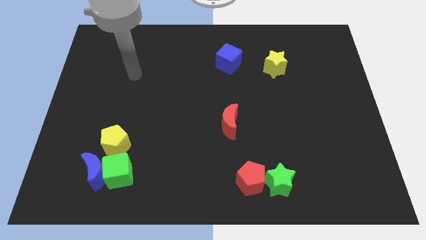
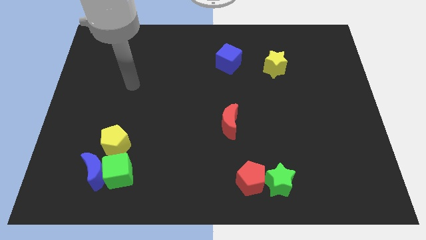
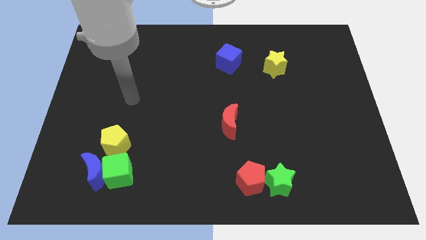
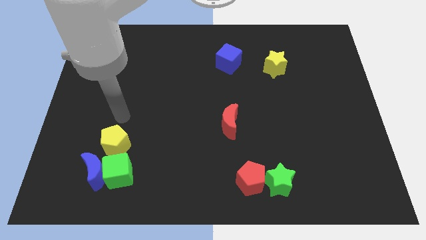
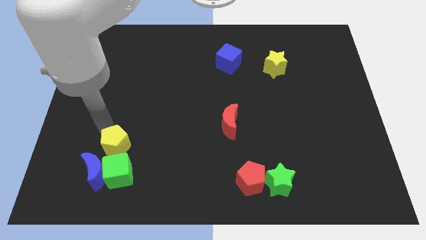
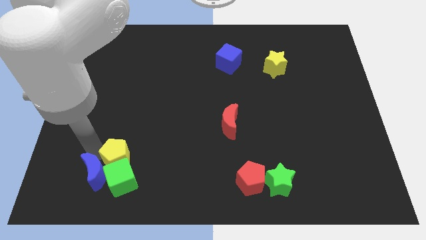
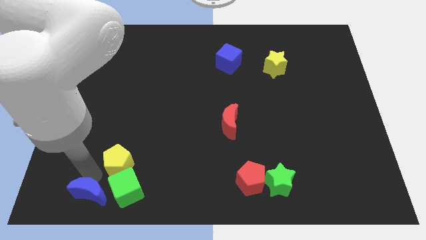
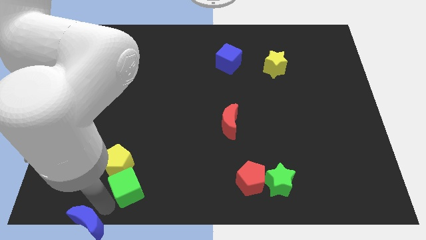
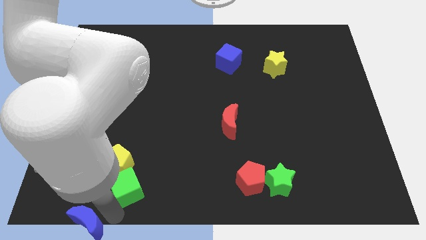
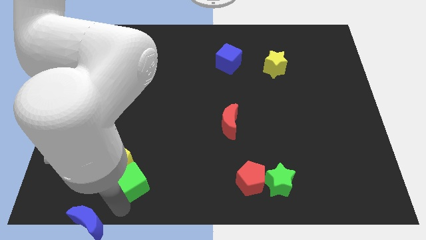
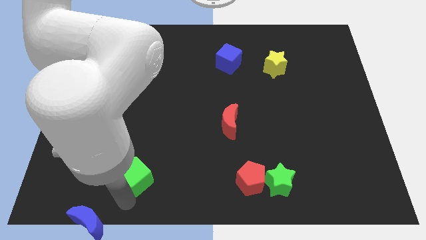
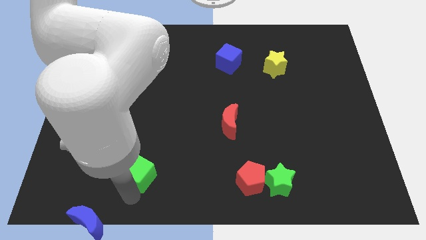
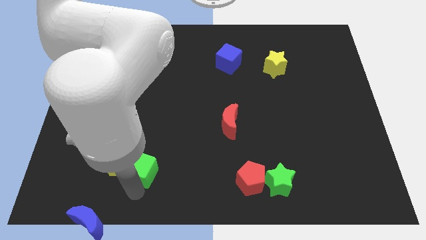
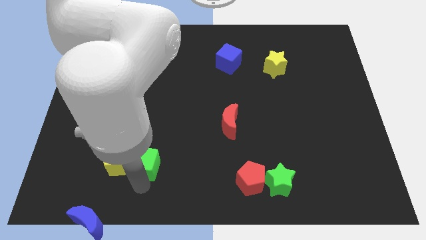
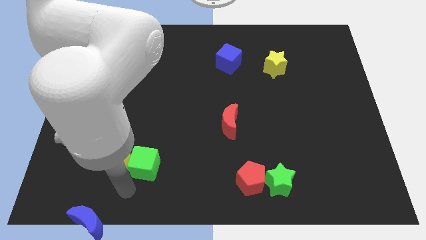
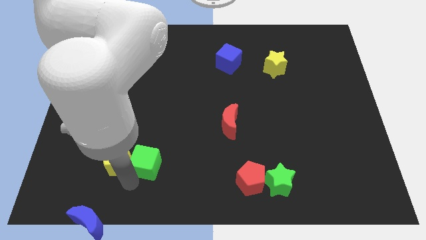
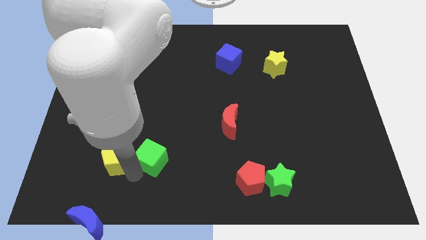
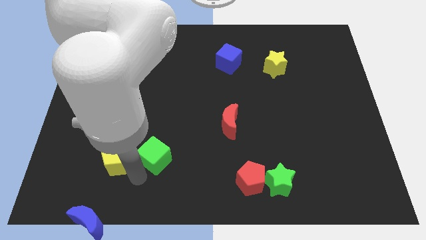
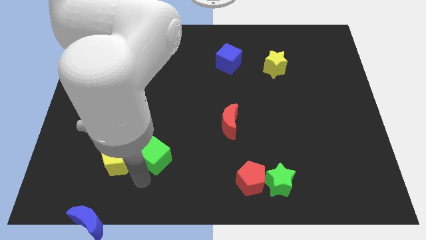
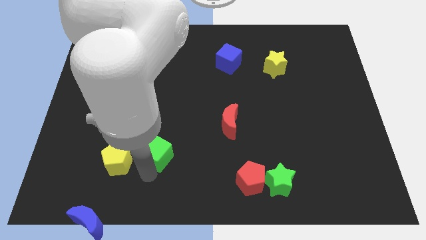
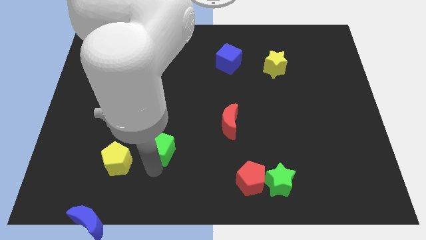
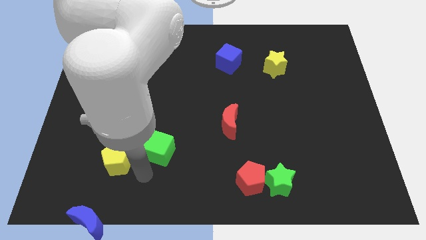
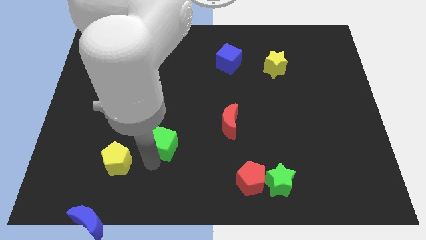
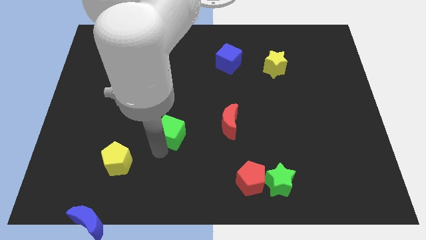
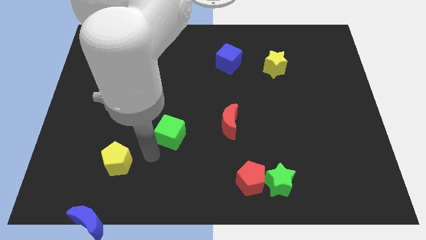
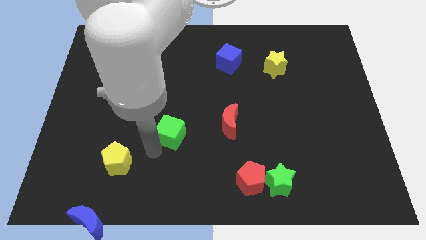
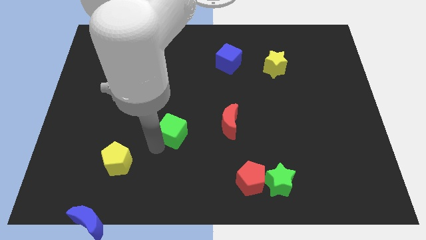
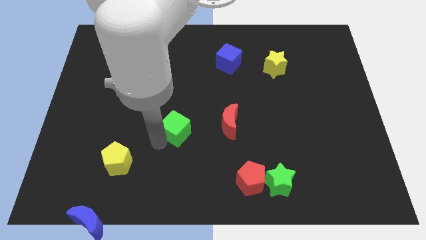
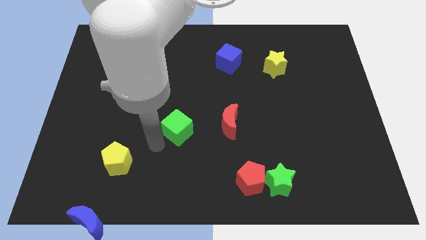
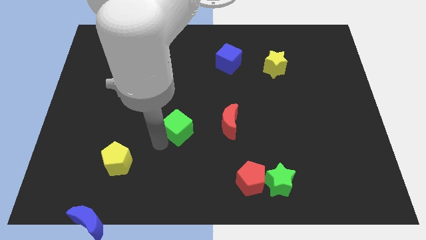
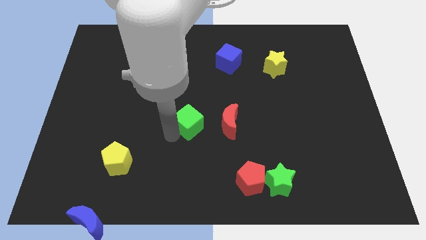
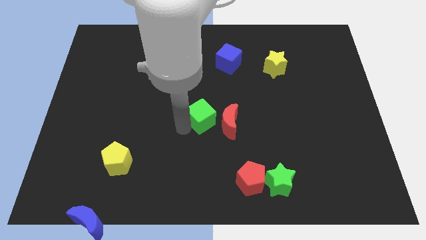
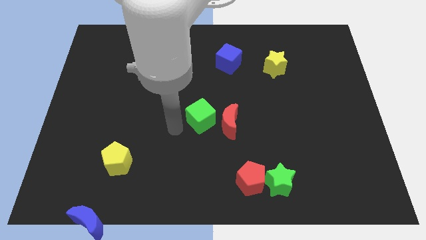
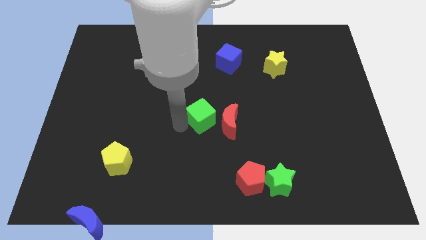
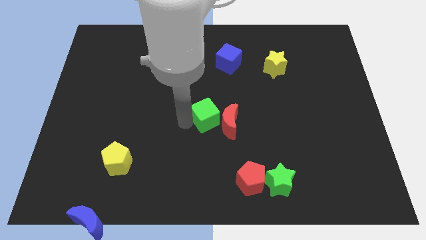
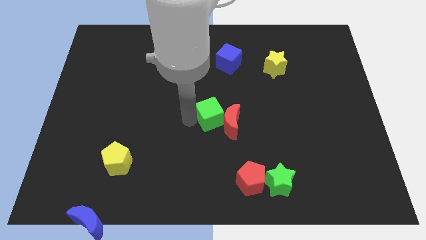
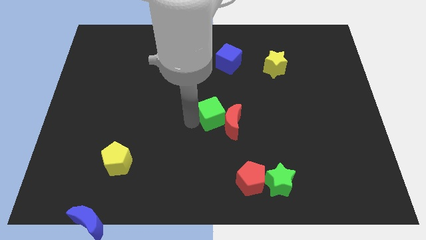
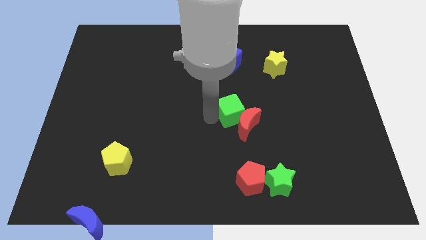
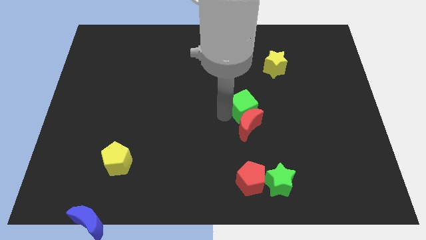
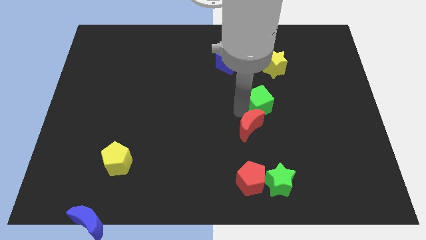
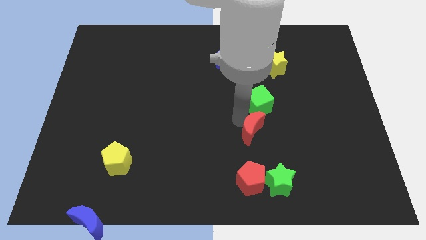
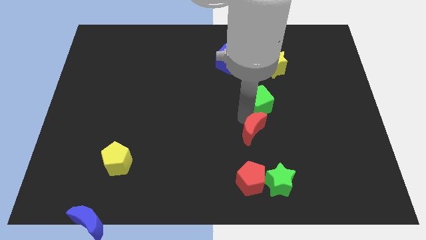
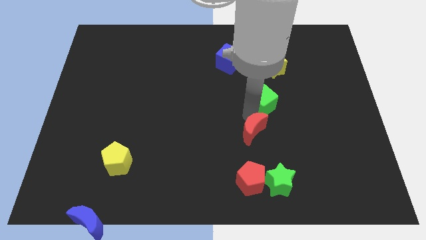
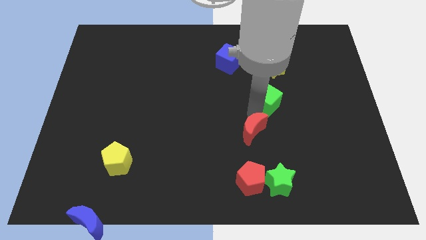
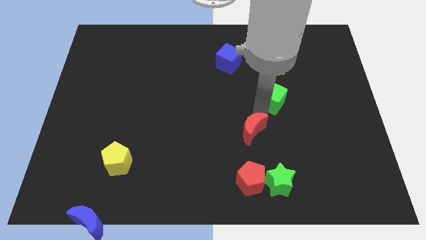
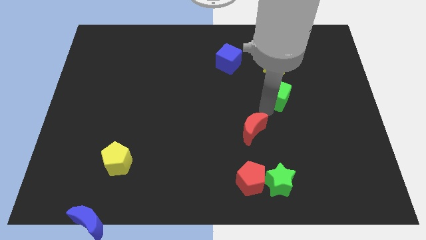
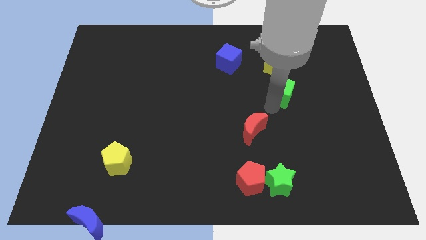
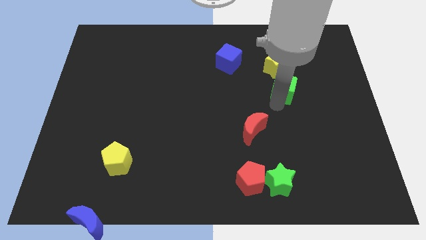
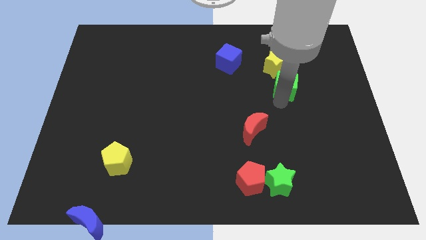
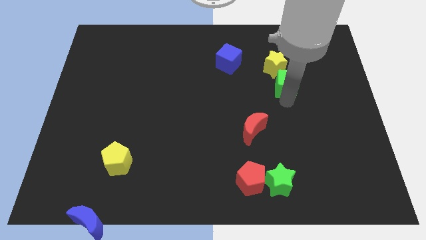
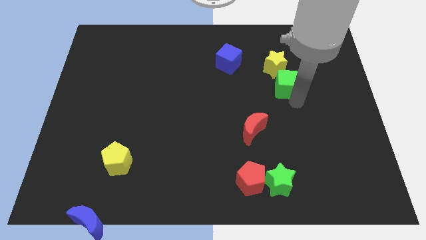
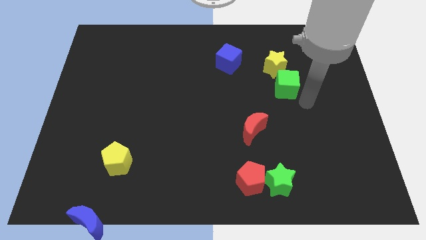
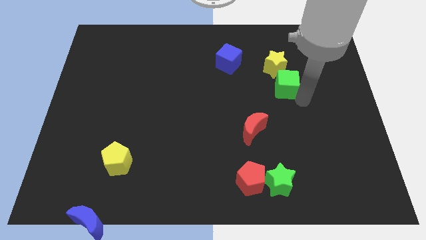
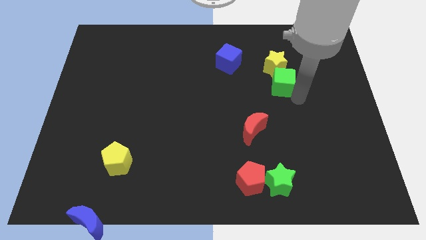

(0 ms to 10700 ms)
push the green cube to the yellow star

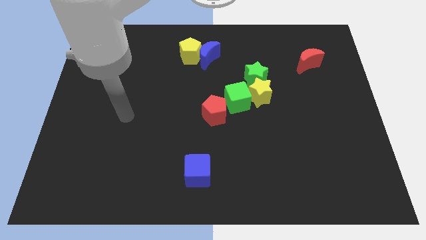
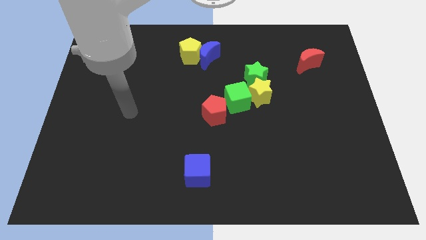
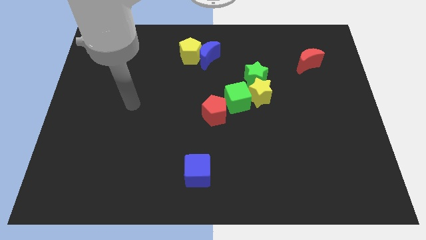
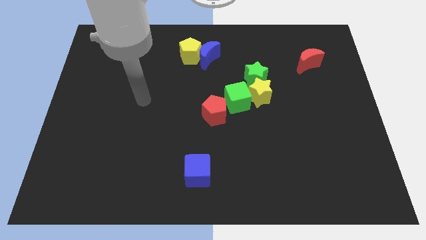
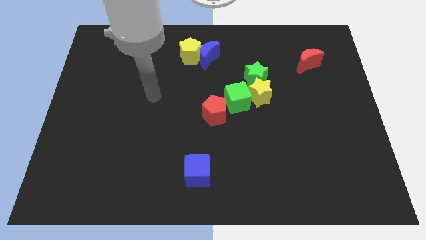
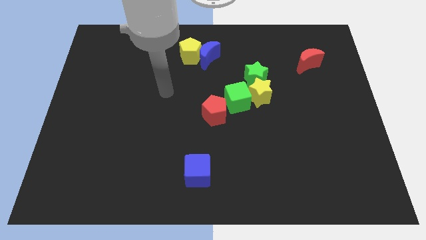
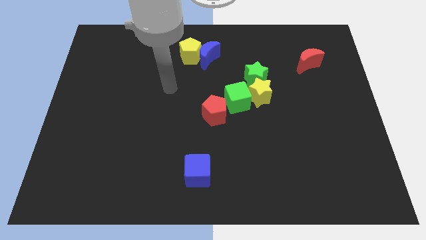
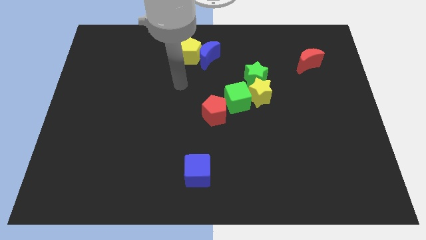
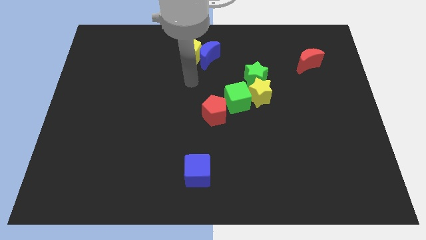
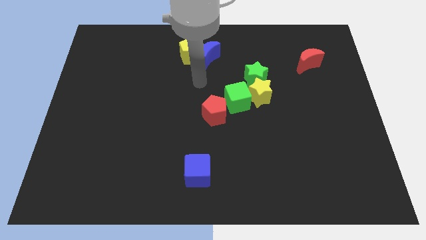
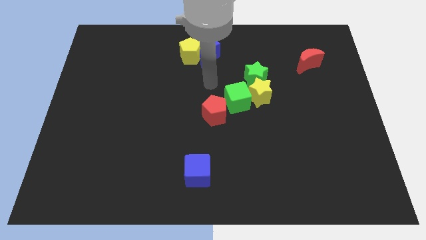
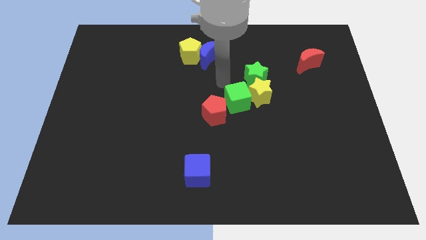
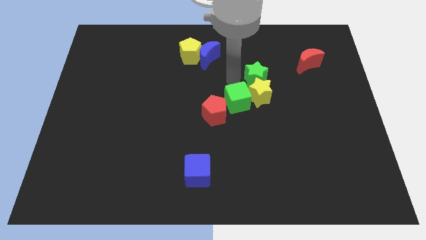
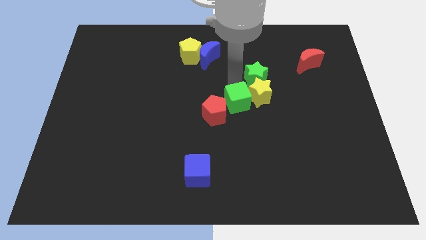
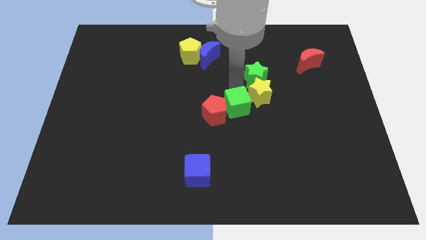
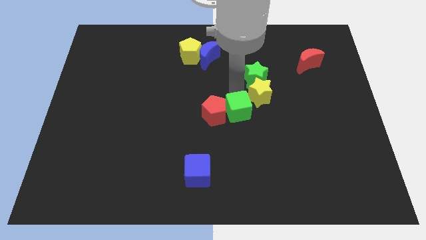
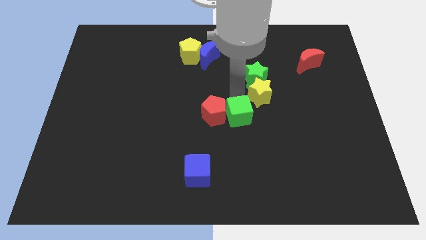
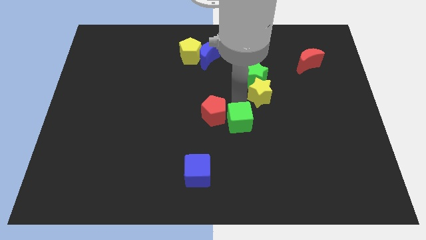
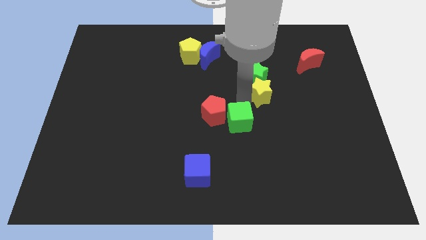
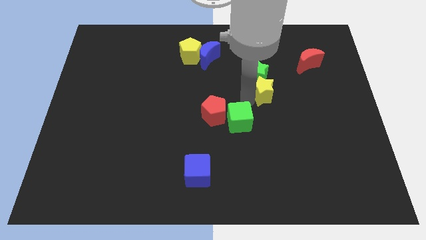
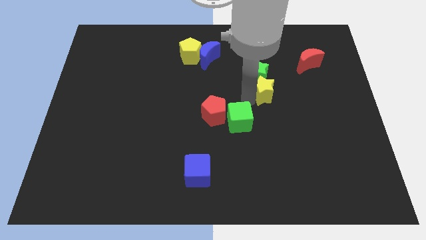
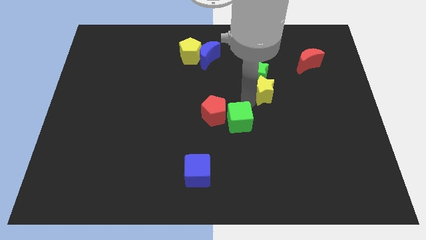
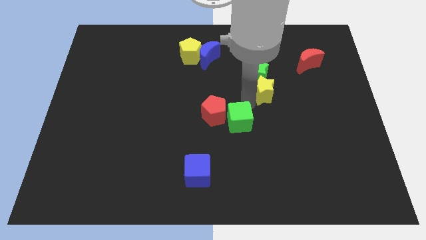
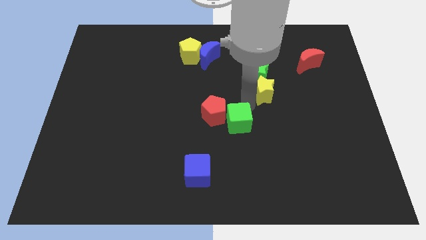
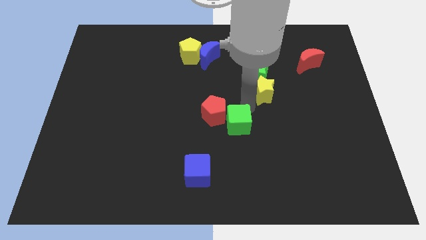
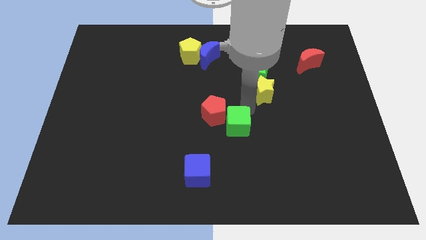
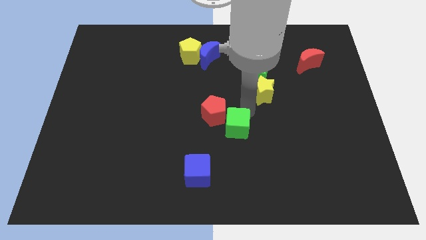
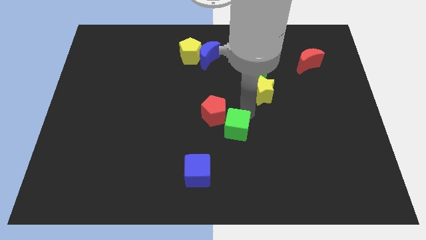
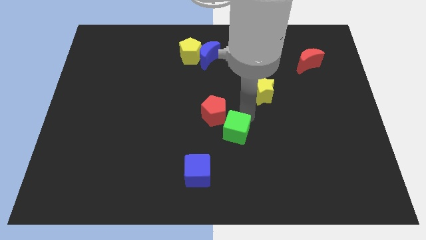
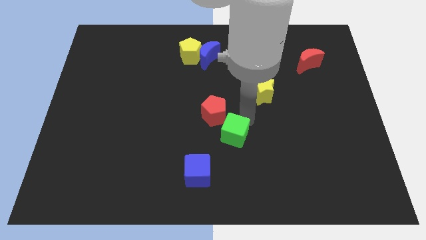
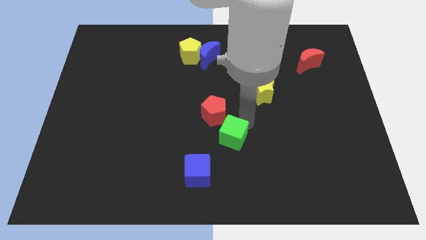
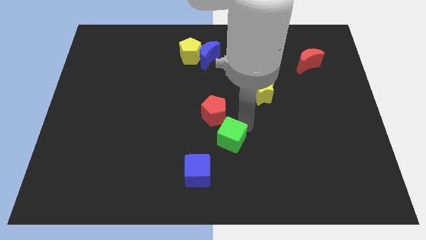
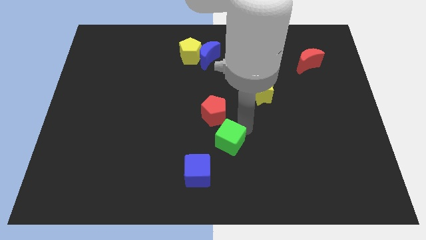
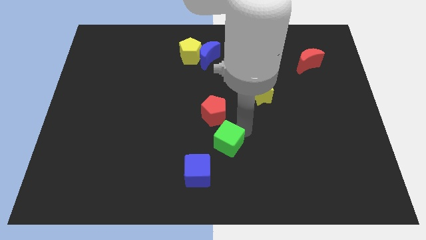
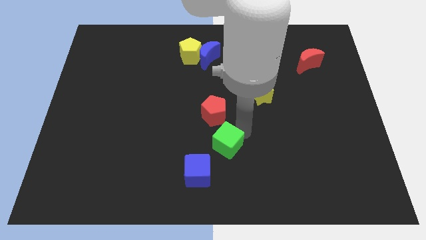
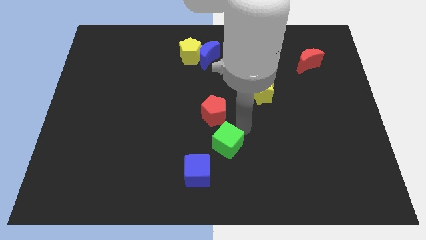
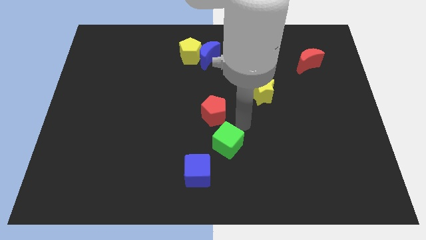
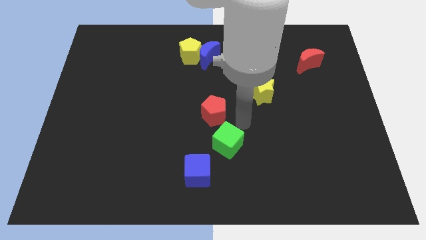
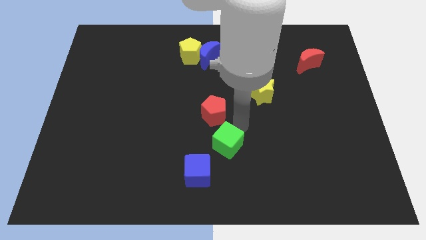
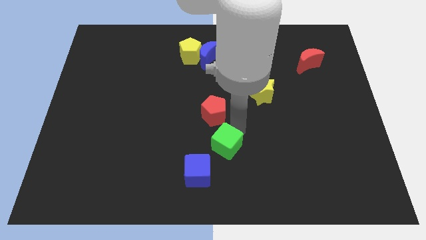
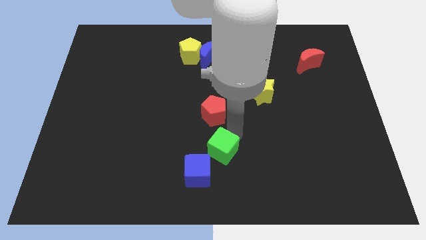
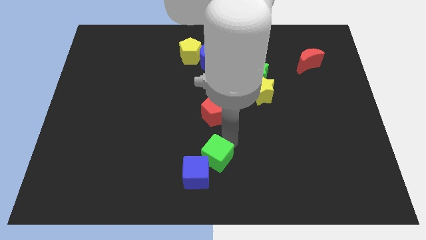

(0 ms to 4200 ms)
push the green cube next to the blue cube
